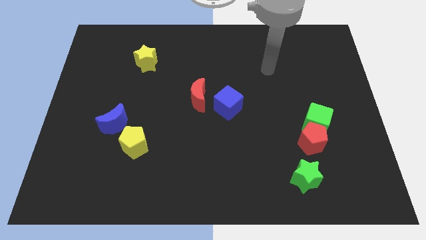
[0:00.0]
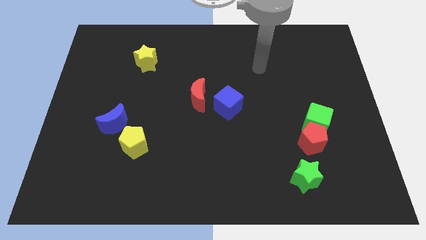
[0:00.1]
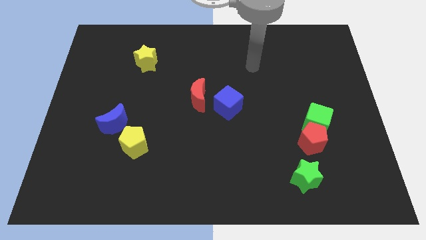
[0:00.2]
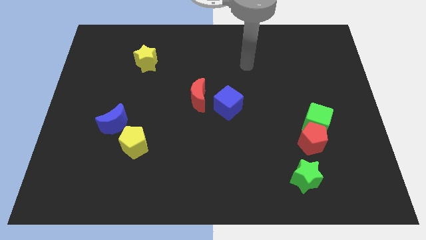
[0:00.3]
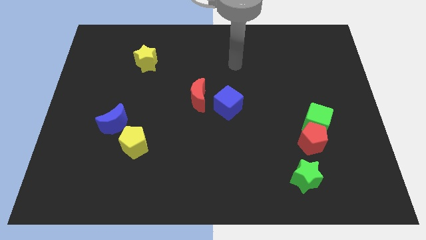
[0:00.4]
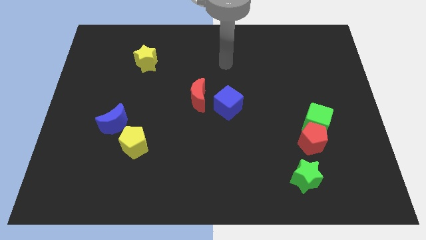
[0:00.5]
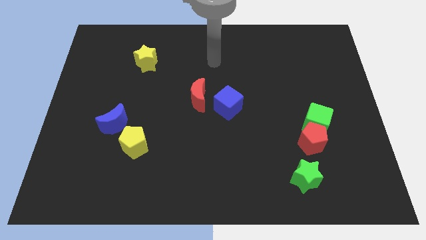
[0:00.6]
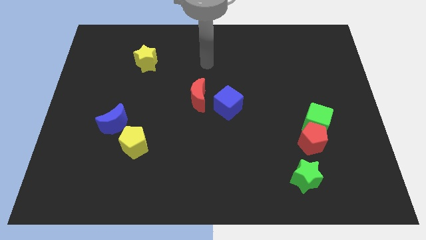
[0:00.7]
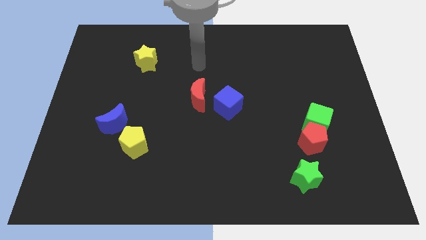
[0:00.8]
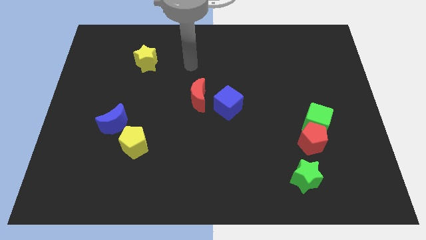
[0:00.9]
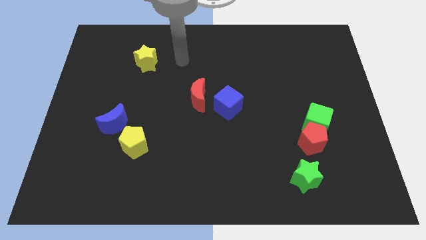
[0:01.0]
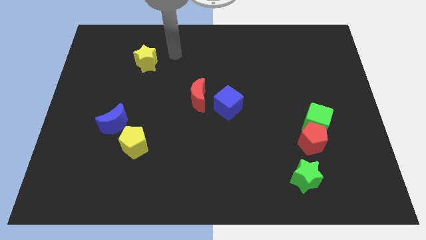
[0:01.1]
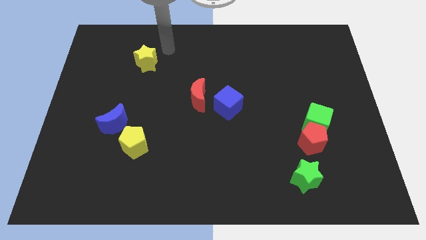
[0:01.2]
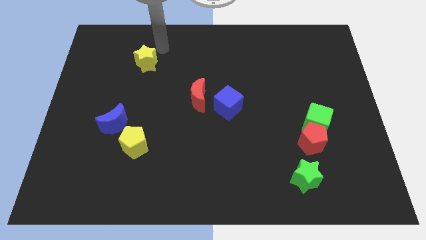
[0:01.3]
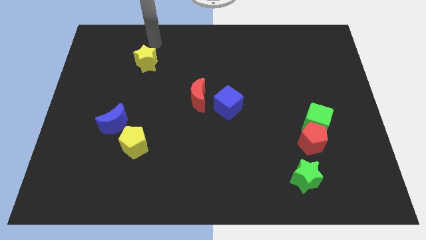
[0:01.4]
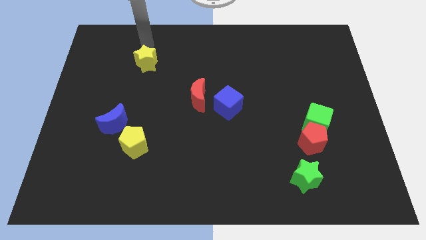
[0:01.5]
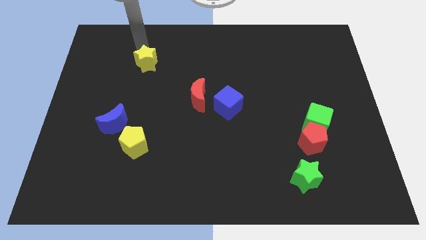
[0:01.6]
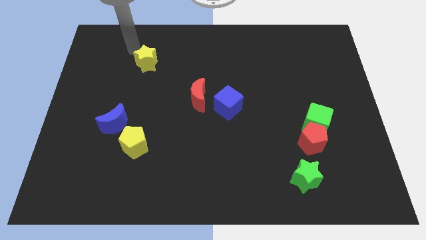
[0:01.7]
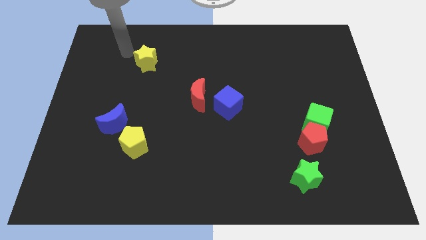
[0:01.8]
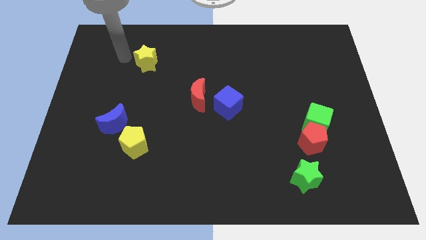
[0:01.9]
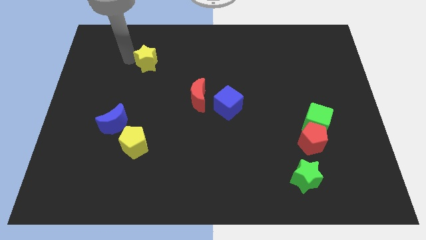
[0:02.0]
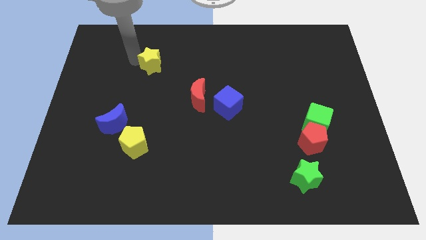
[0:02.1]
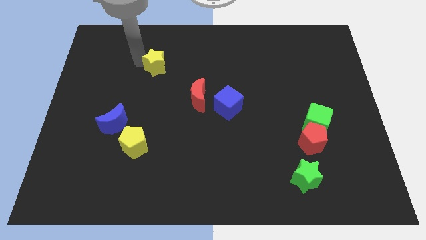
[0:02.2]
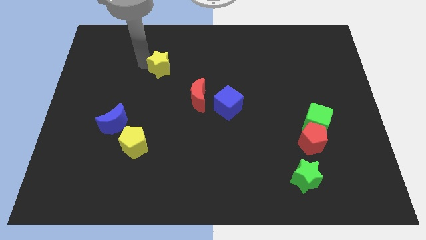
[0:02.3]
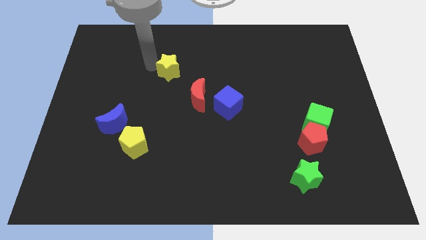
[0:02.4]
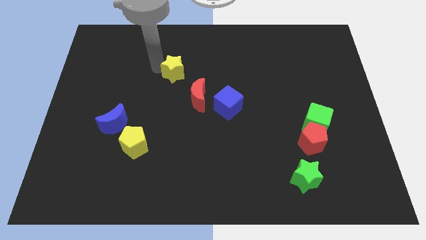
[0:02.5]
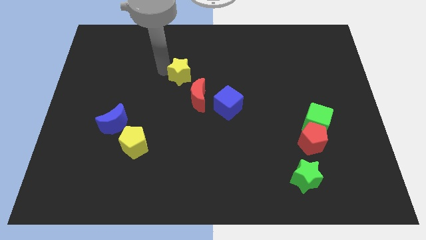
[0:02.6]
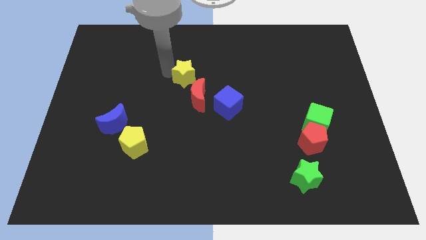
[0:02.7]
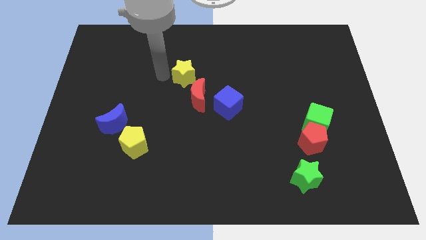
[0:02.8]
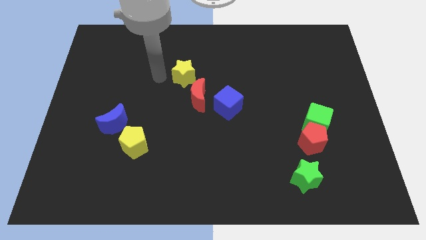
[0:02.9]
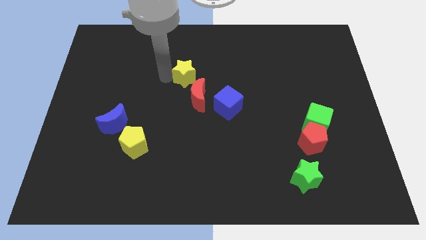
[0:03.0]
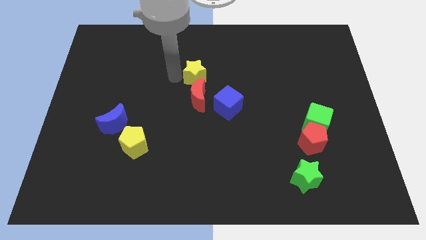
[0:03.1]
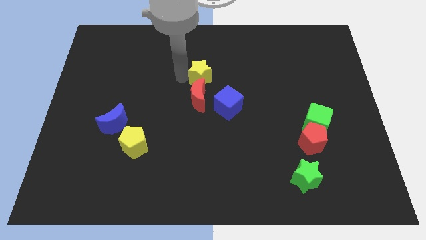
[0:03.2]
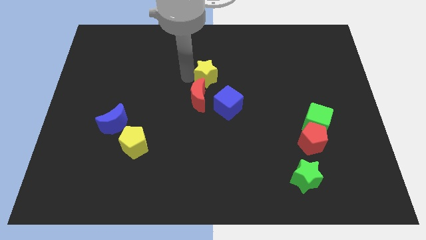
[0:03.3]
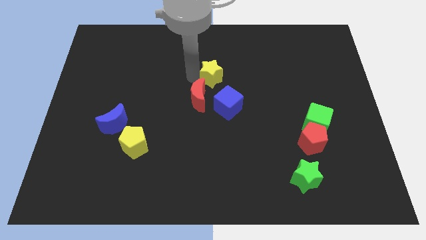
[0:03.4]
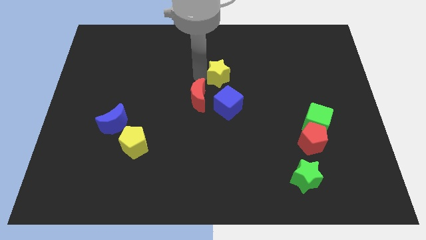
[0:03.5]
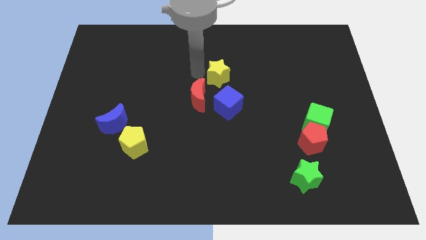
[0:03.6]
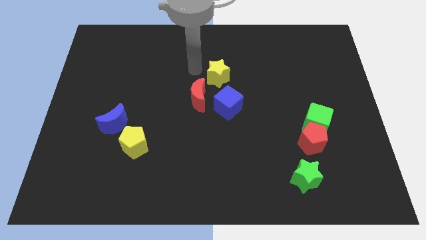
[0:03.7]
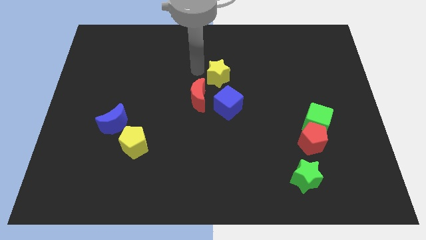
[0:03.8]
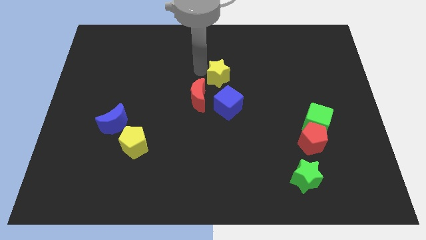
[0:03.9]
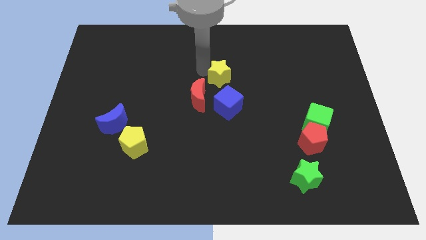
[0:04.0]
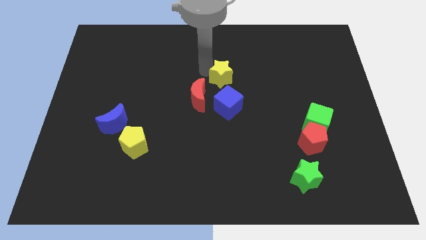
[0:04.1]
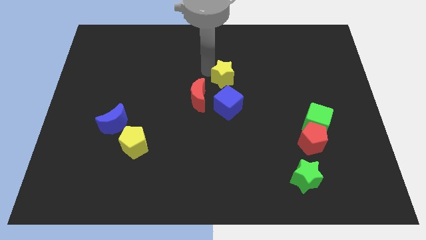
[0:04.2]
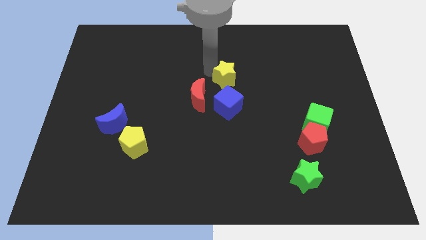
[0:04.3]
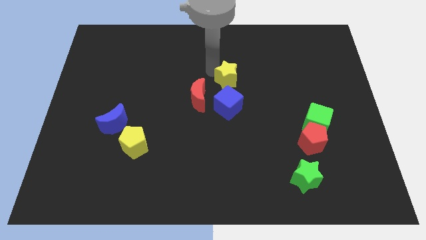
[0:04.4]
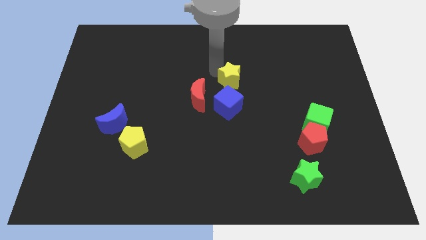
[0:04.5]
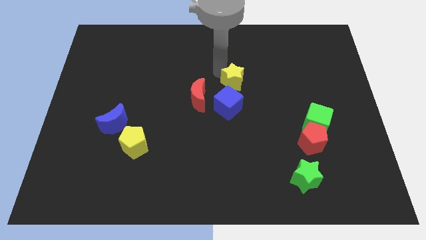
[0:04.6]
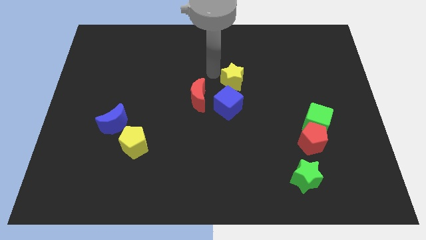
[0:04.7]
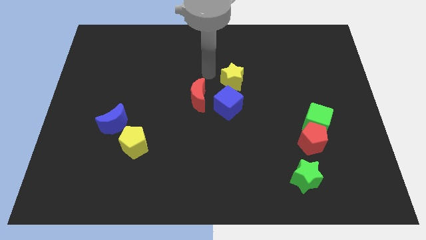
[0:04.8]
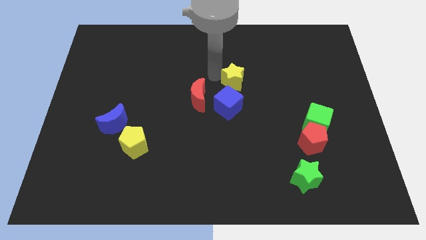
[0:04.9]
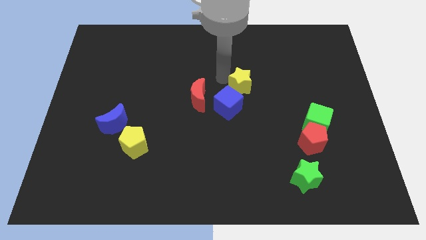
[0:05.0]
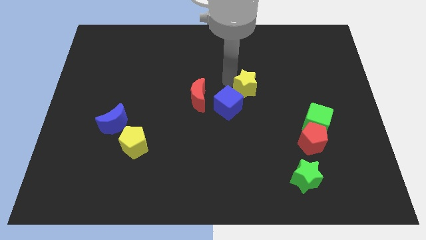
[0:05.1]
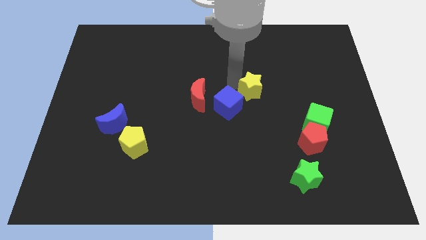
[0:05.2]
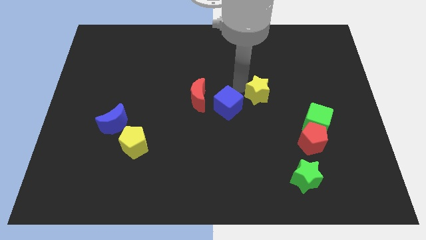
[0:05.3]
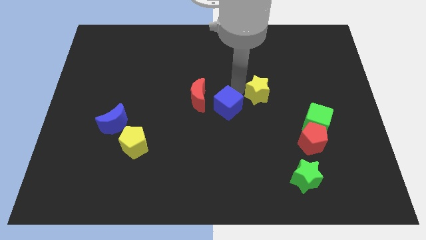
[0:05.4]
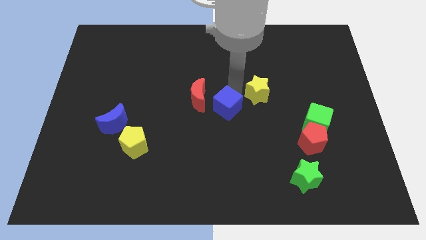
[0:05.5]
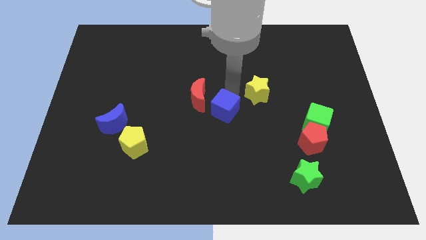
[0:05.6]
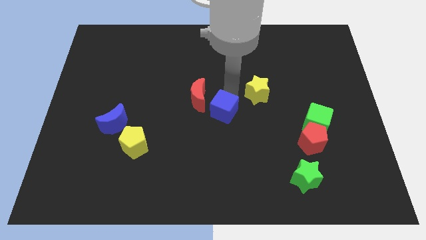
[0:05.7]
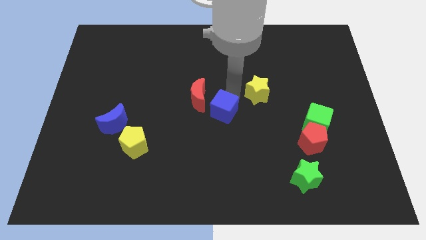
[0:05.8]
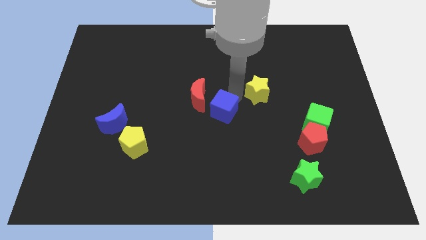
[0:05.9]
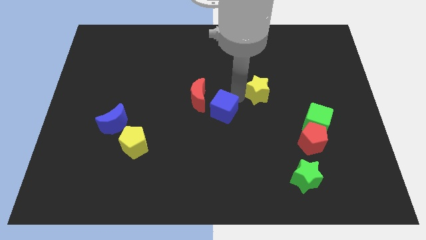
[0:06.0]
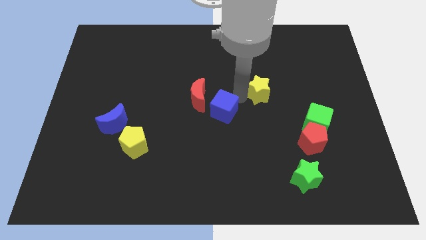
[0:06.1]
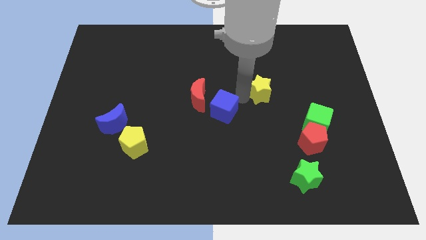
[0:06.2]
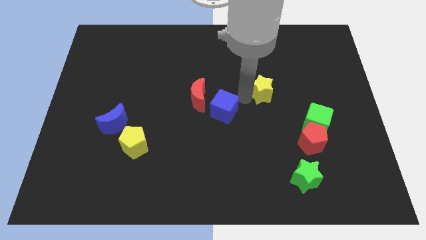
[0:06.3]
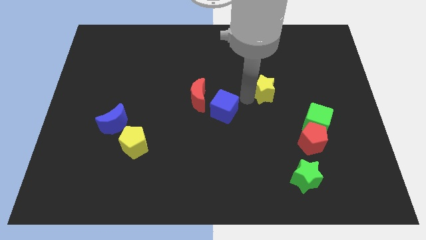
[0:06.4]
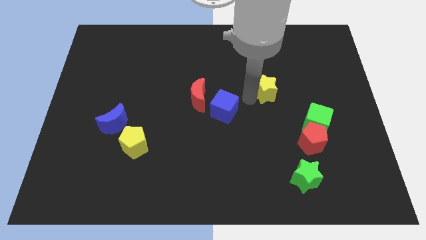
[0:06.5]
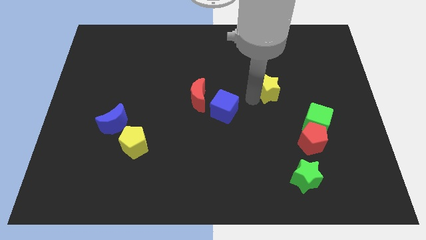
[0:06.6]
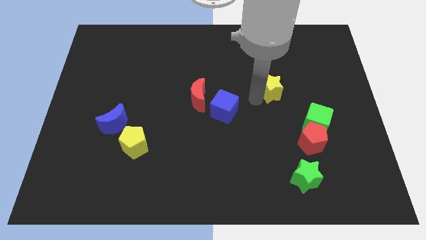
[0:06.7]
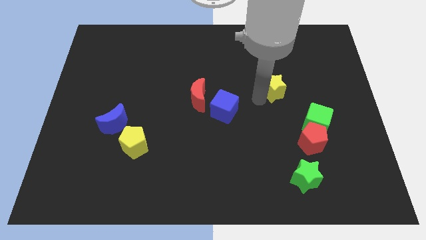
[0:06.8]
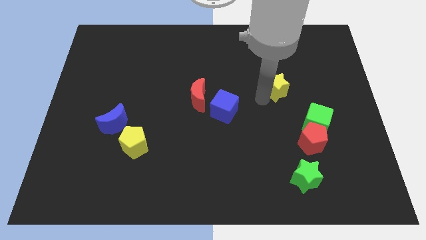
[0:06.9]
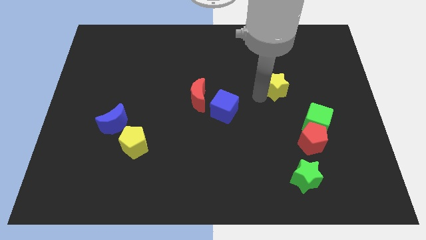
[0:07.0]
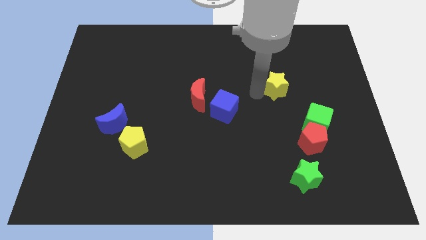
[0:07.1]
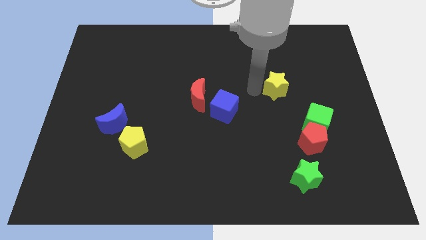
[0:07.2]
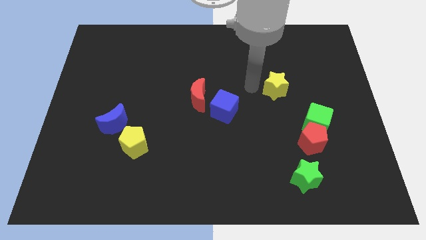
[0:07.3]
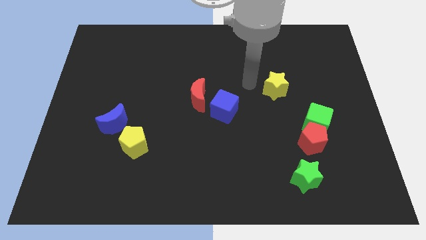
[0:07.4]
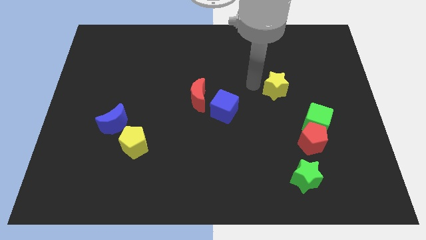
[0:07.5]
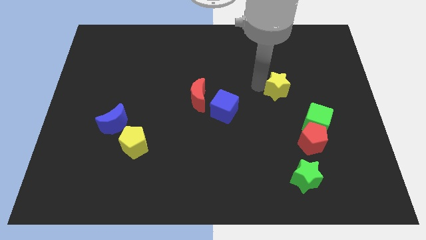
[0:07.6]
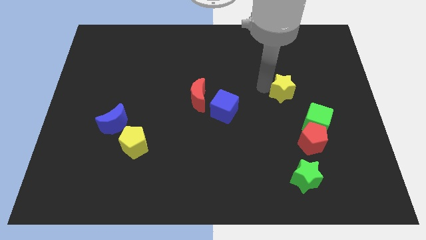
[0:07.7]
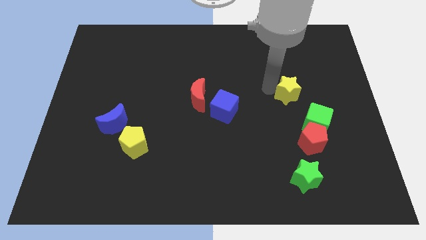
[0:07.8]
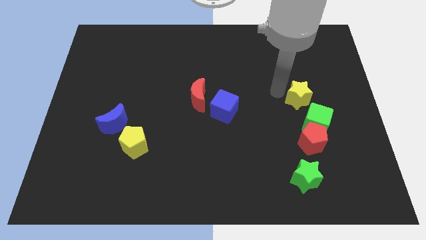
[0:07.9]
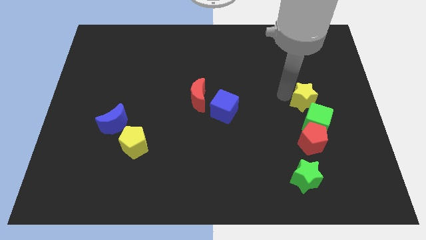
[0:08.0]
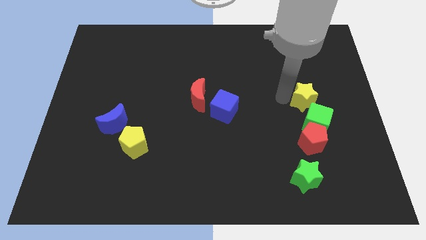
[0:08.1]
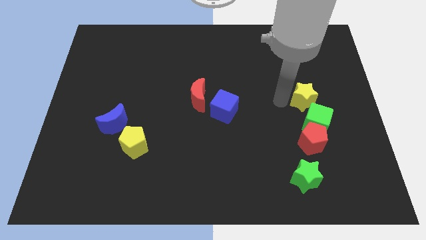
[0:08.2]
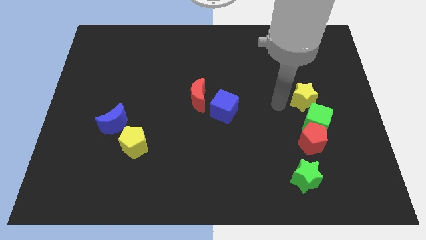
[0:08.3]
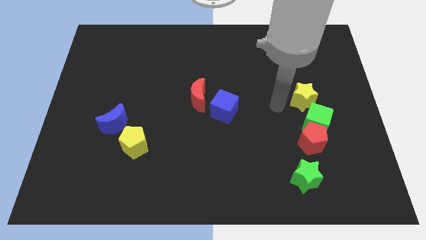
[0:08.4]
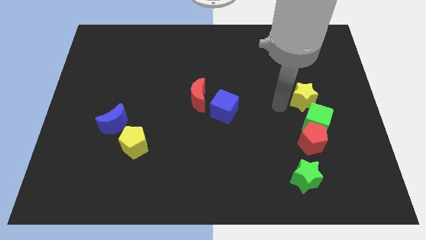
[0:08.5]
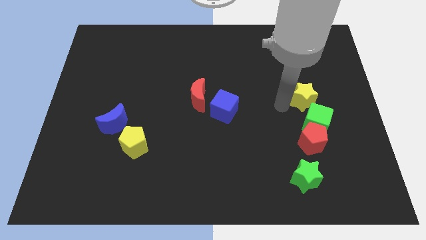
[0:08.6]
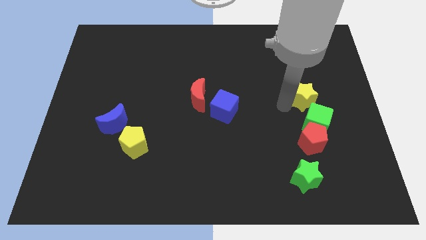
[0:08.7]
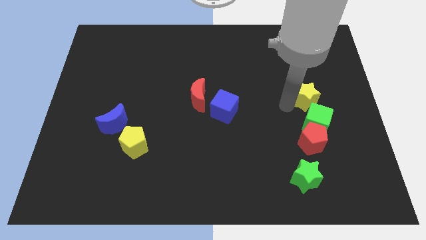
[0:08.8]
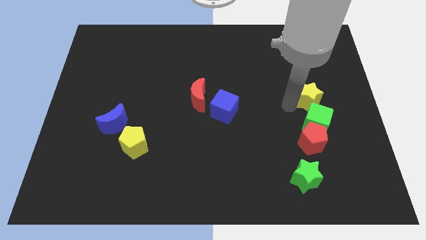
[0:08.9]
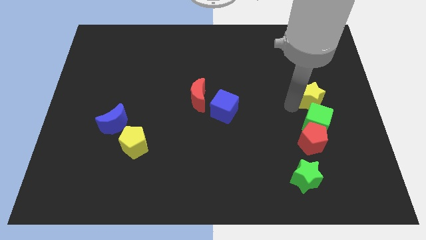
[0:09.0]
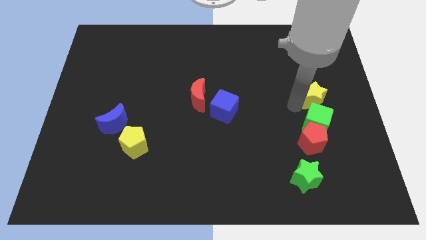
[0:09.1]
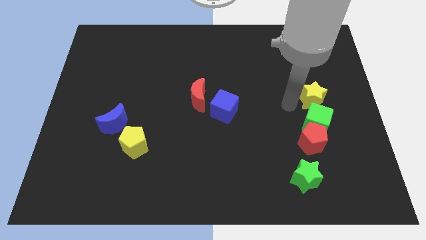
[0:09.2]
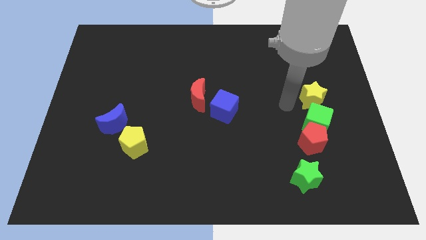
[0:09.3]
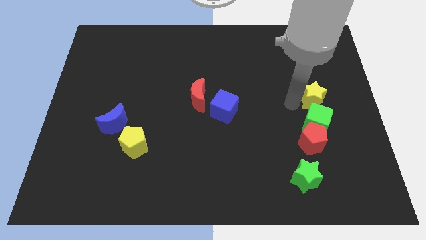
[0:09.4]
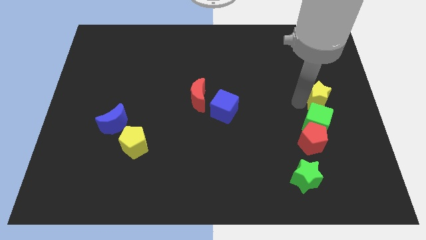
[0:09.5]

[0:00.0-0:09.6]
slide the yellow star to the center right
